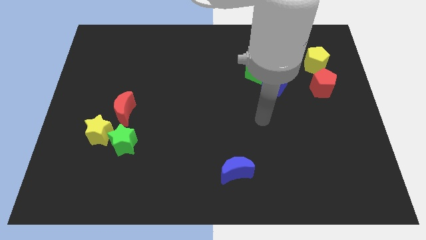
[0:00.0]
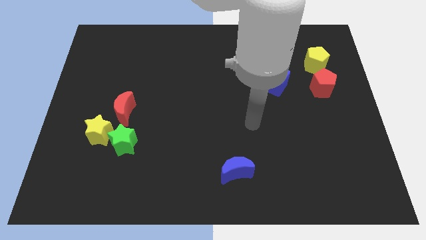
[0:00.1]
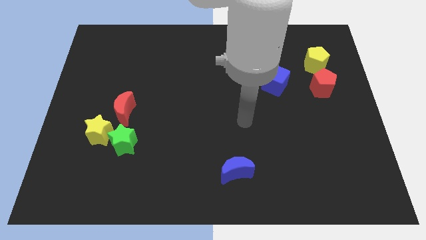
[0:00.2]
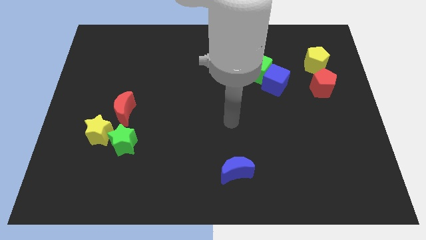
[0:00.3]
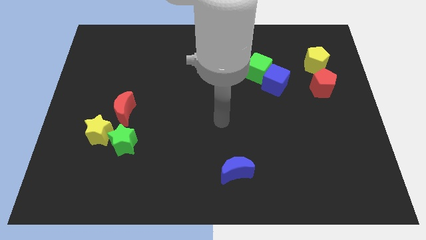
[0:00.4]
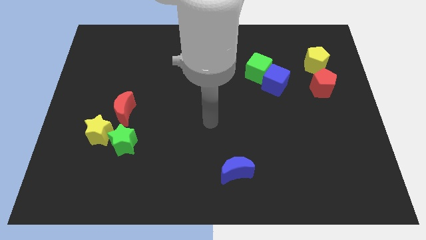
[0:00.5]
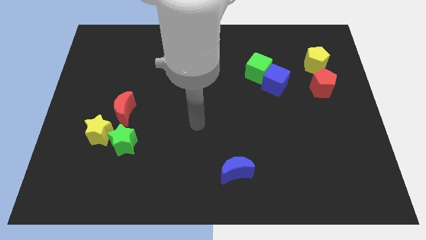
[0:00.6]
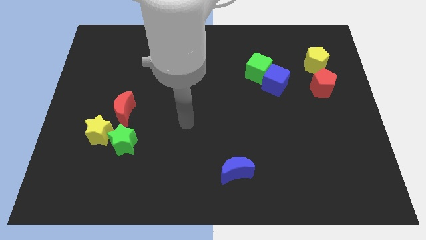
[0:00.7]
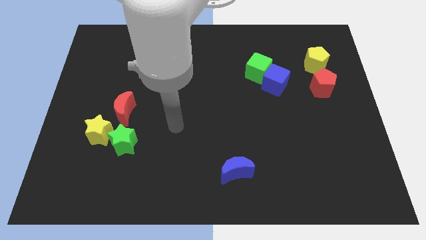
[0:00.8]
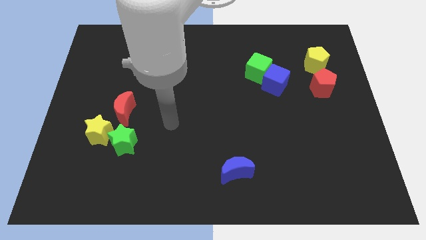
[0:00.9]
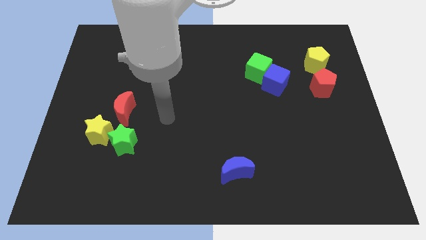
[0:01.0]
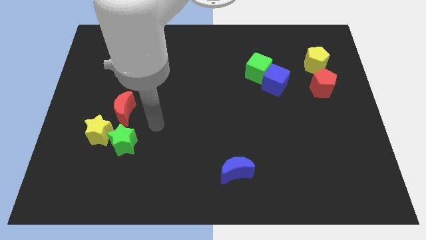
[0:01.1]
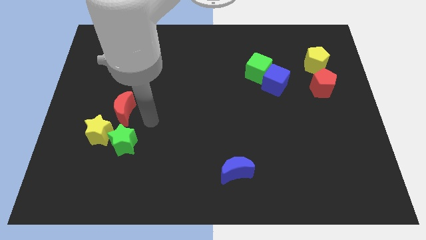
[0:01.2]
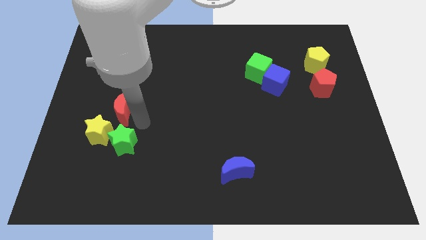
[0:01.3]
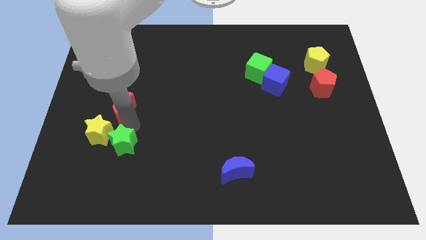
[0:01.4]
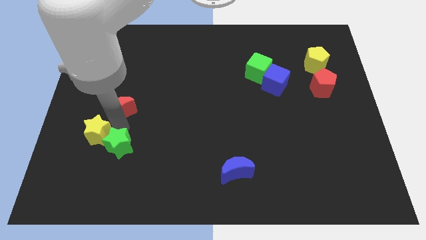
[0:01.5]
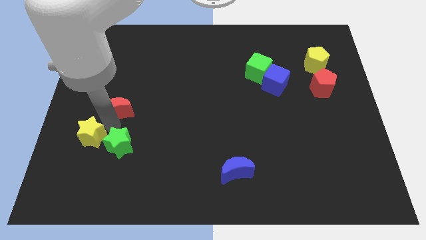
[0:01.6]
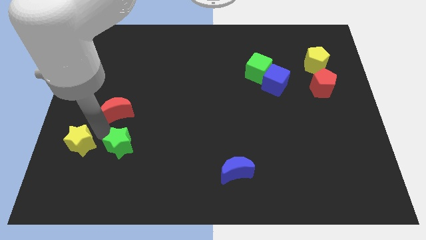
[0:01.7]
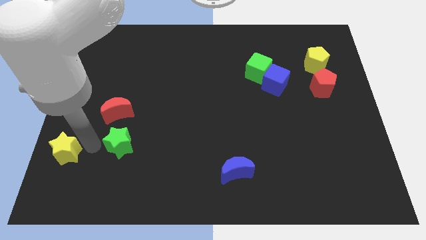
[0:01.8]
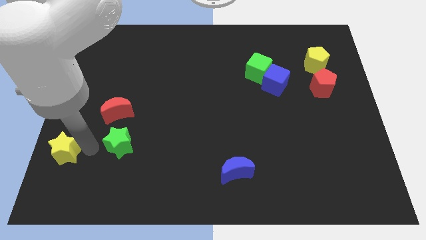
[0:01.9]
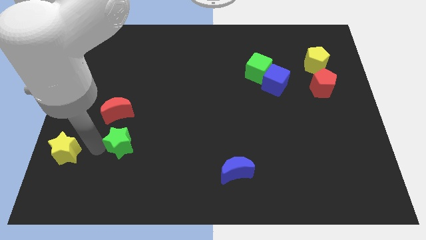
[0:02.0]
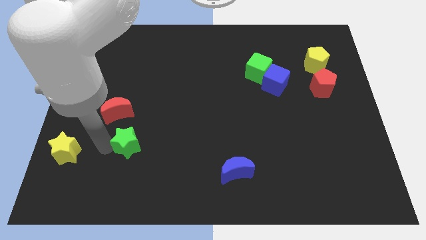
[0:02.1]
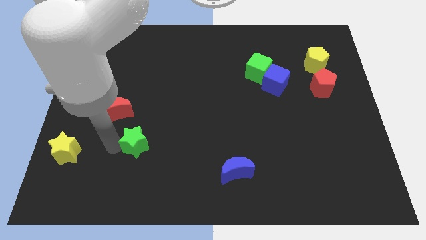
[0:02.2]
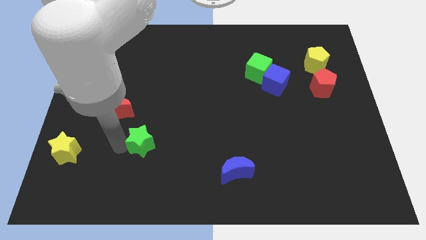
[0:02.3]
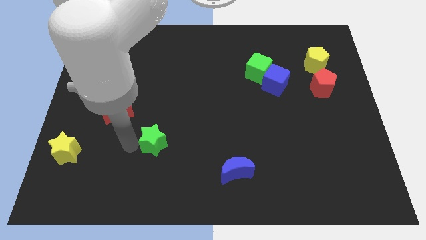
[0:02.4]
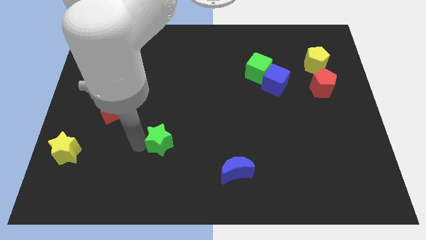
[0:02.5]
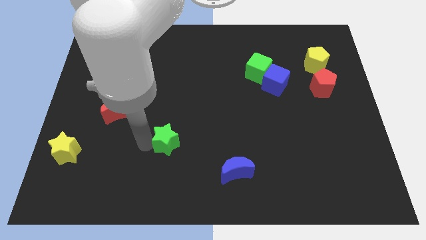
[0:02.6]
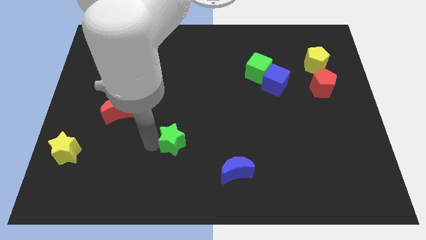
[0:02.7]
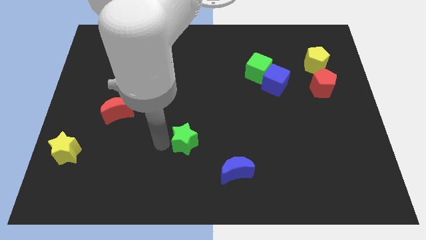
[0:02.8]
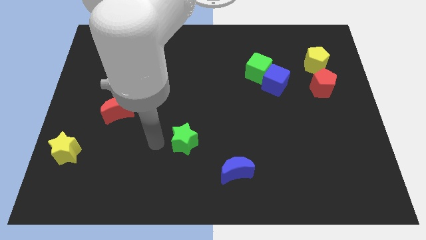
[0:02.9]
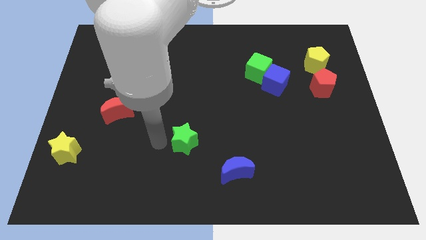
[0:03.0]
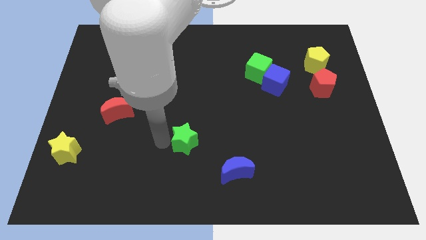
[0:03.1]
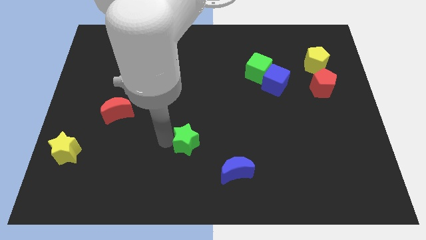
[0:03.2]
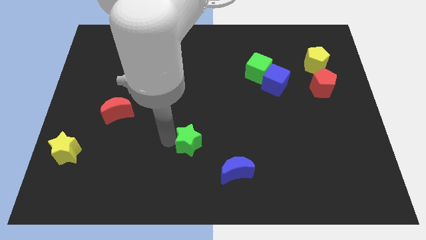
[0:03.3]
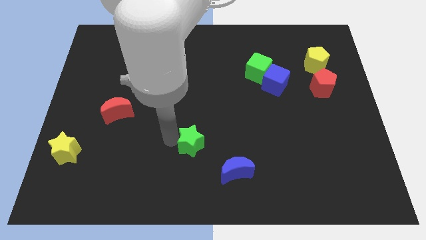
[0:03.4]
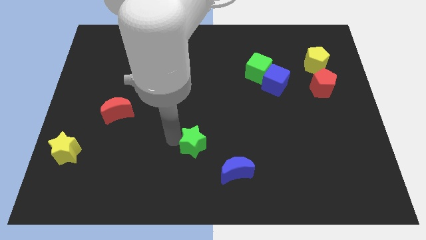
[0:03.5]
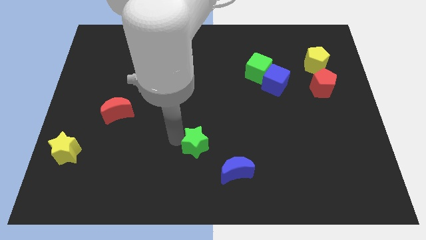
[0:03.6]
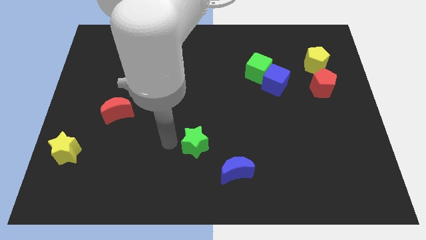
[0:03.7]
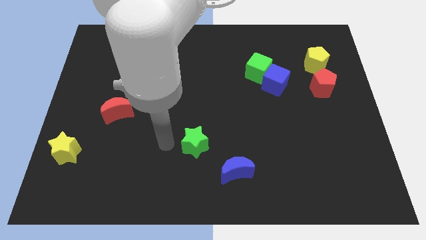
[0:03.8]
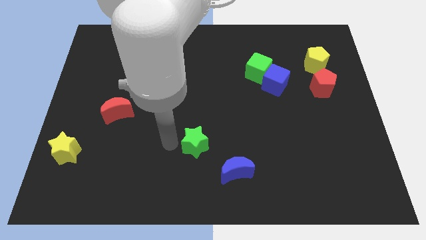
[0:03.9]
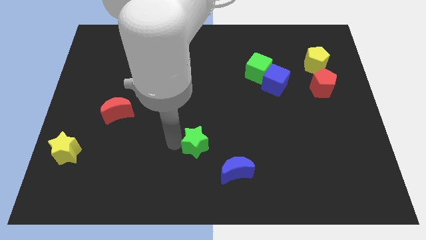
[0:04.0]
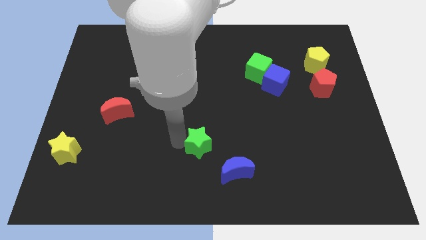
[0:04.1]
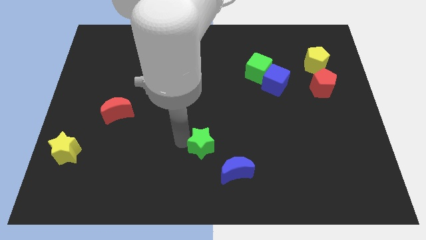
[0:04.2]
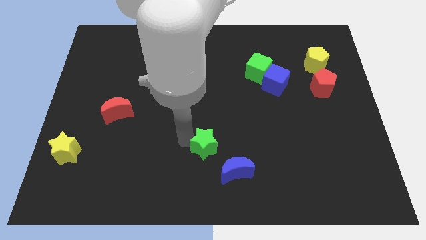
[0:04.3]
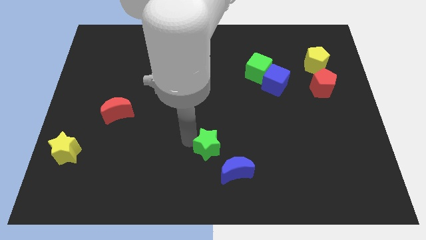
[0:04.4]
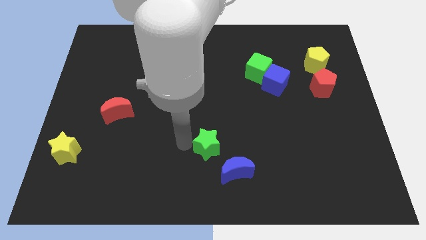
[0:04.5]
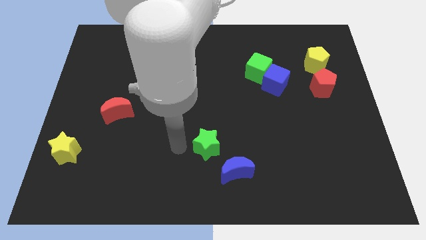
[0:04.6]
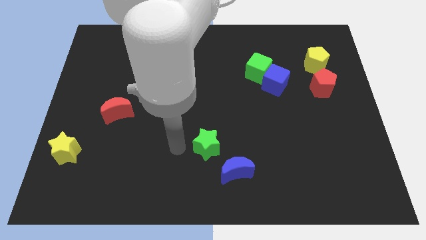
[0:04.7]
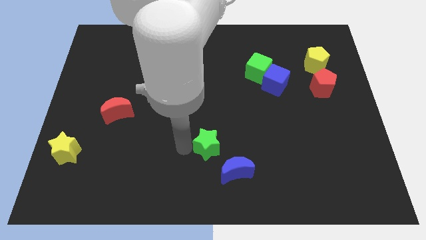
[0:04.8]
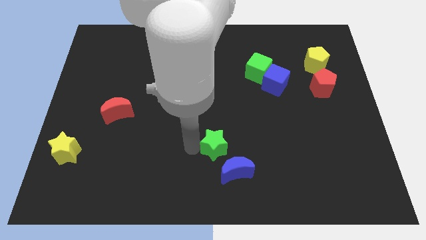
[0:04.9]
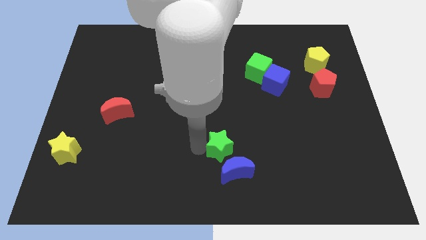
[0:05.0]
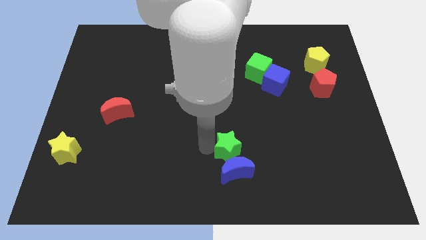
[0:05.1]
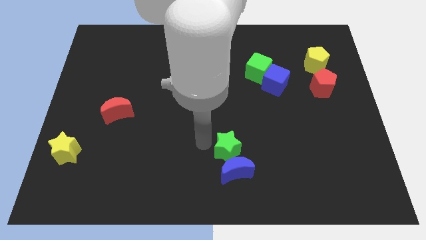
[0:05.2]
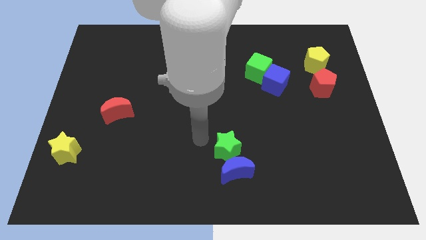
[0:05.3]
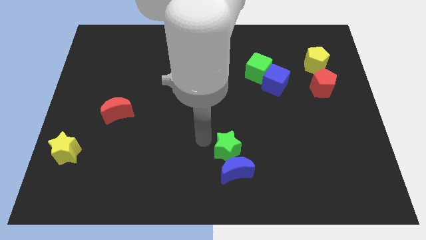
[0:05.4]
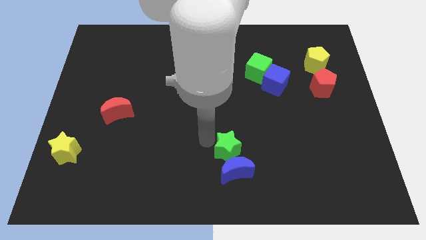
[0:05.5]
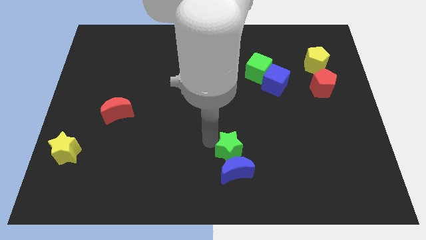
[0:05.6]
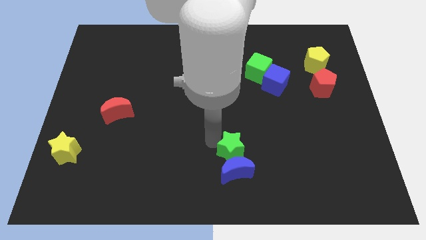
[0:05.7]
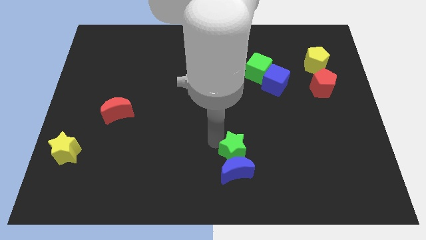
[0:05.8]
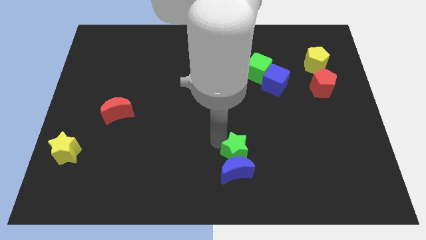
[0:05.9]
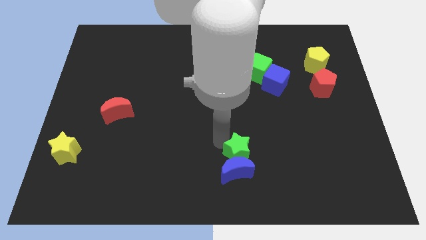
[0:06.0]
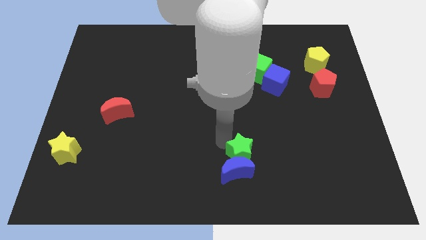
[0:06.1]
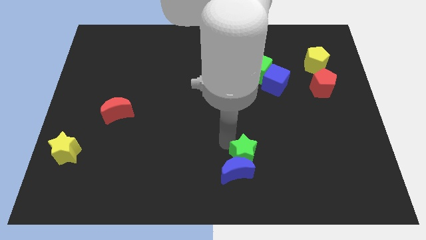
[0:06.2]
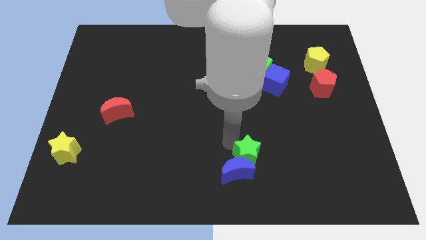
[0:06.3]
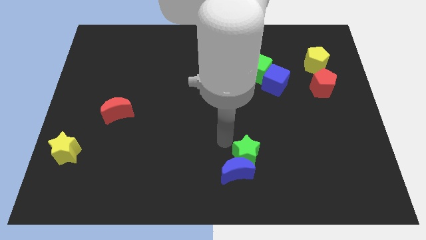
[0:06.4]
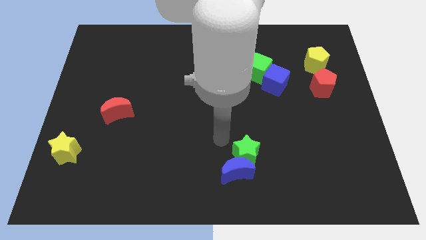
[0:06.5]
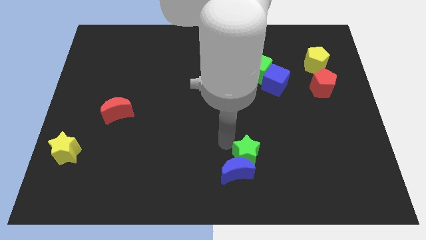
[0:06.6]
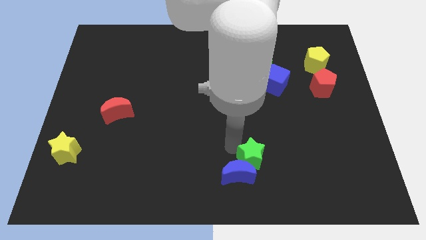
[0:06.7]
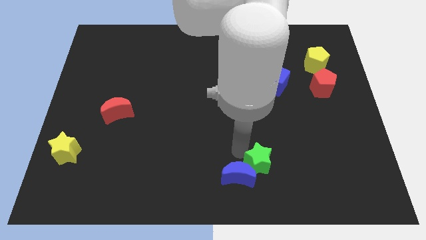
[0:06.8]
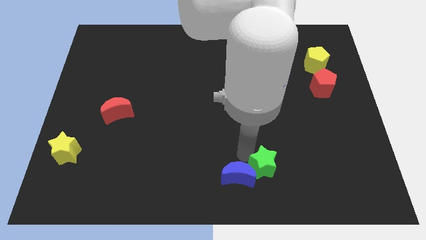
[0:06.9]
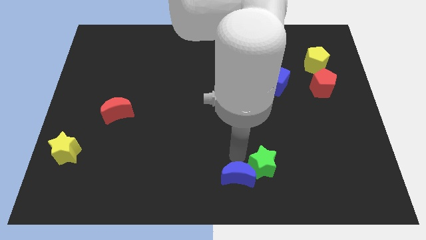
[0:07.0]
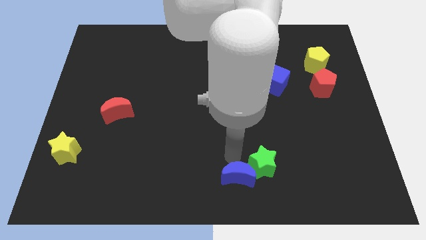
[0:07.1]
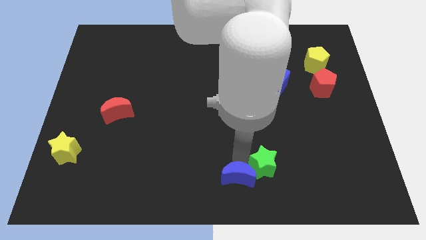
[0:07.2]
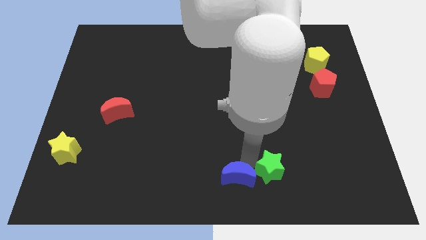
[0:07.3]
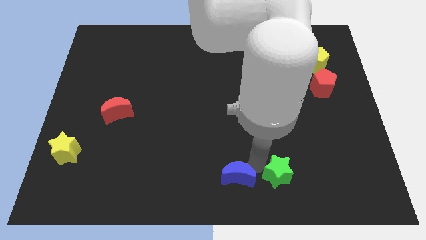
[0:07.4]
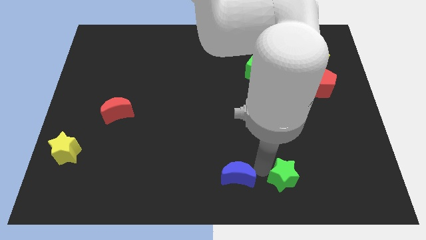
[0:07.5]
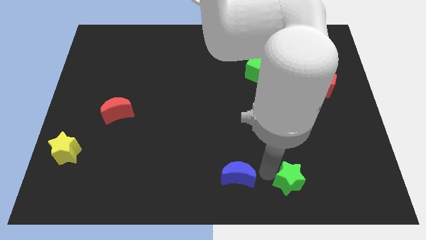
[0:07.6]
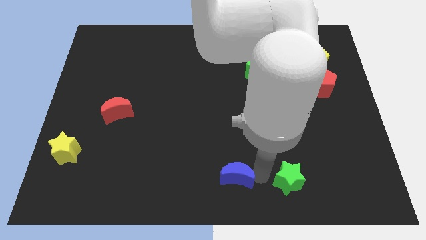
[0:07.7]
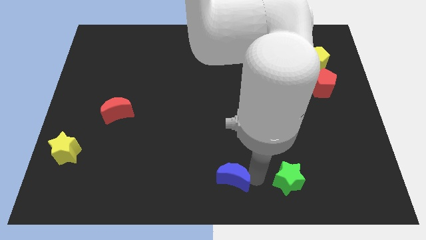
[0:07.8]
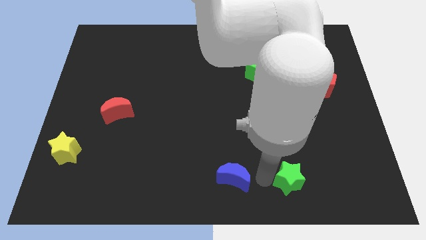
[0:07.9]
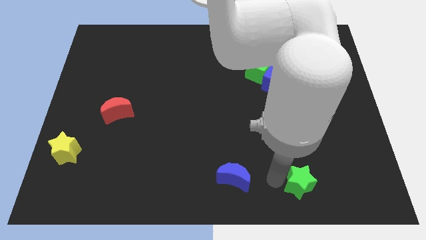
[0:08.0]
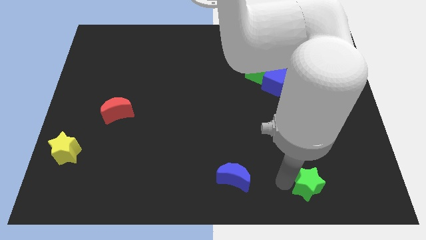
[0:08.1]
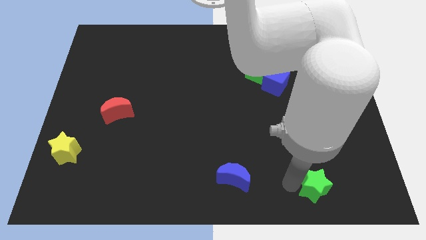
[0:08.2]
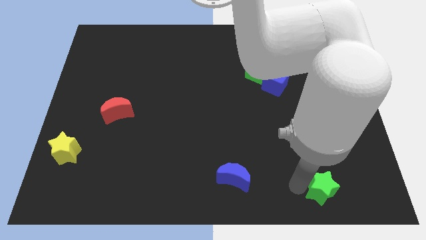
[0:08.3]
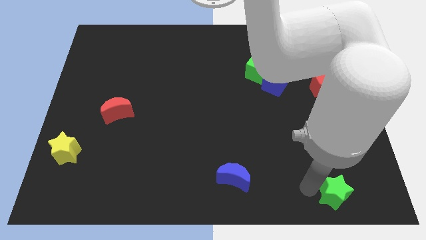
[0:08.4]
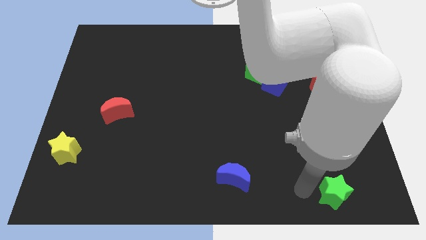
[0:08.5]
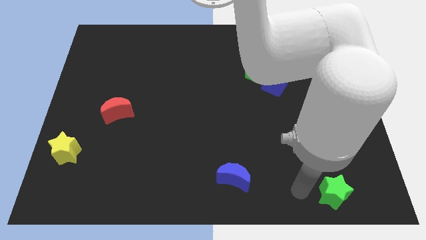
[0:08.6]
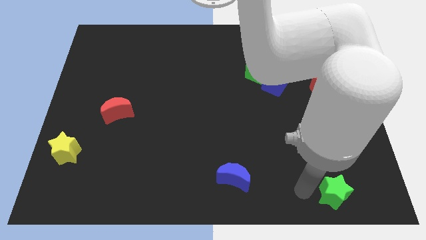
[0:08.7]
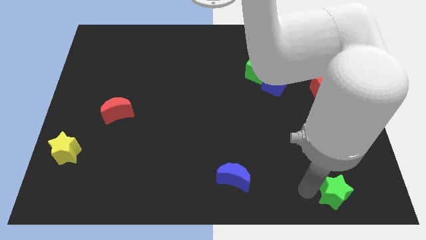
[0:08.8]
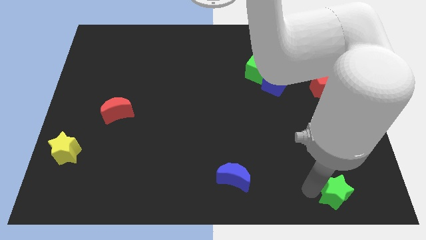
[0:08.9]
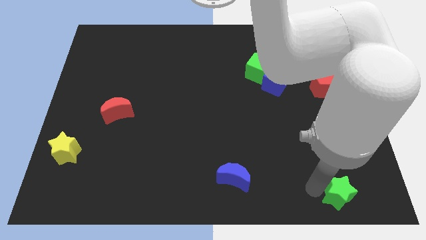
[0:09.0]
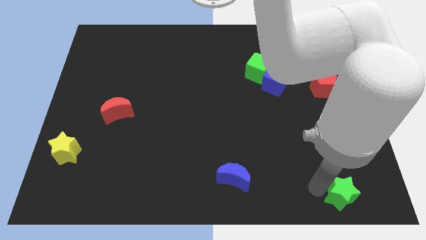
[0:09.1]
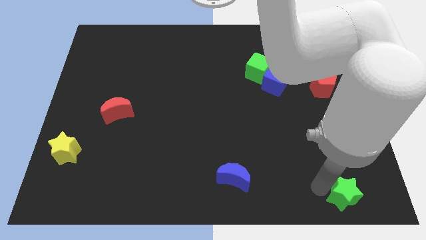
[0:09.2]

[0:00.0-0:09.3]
put the green star to the bottom right of the board
